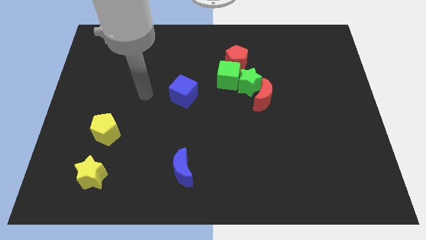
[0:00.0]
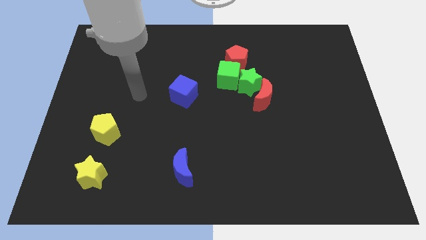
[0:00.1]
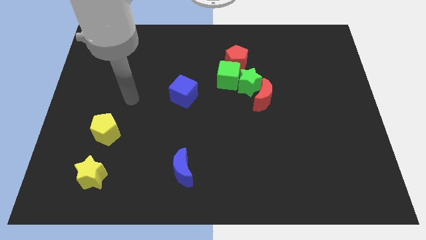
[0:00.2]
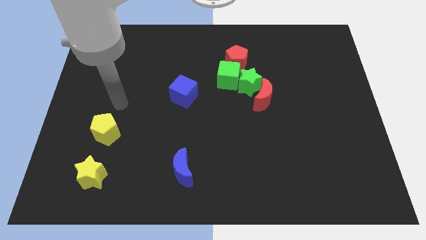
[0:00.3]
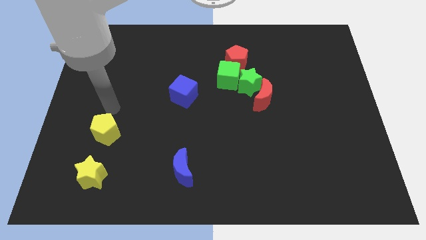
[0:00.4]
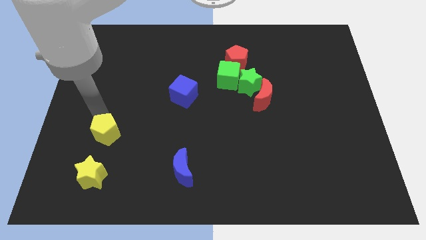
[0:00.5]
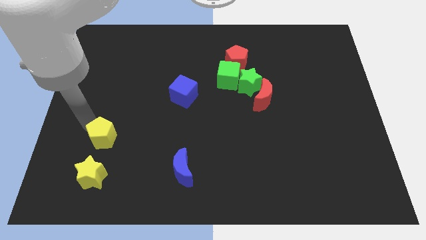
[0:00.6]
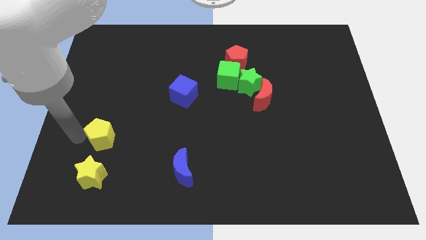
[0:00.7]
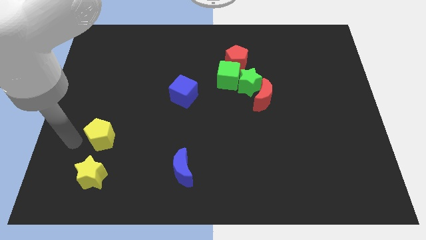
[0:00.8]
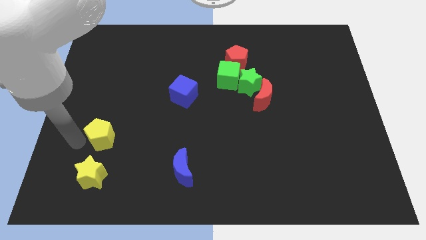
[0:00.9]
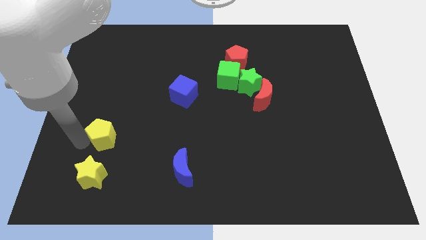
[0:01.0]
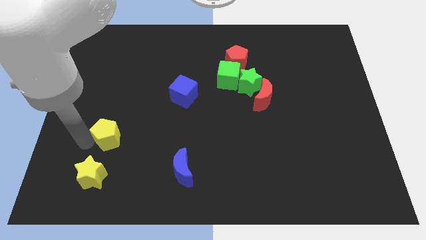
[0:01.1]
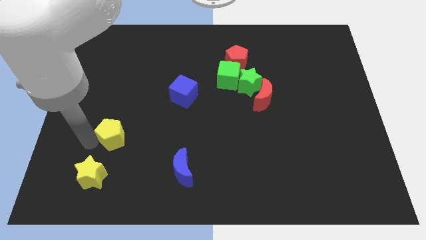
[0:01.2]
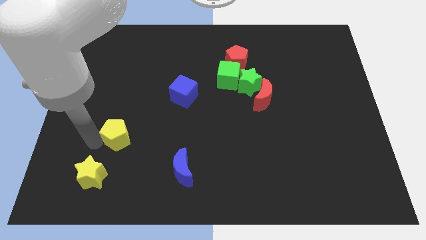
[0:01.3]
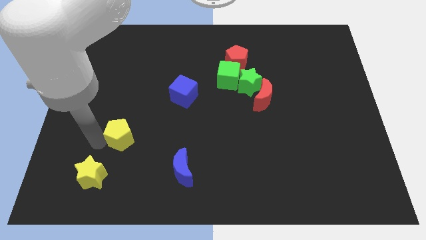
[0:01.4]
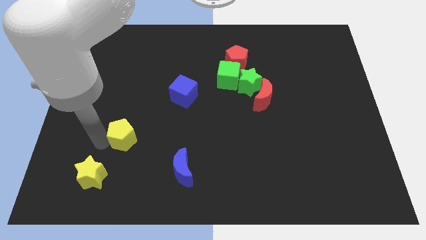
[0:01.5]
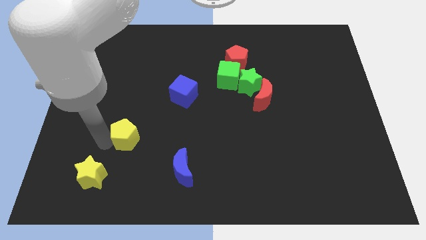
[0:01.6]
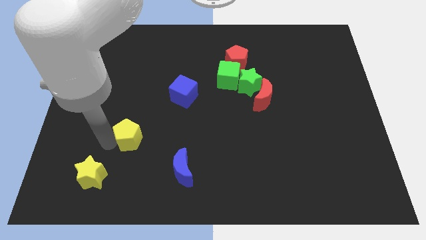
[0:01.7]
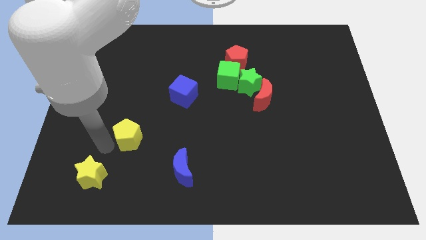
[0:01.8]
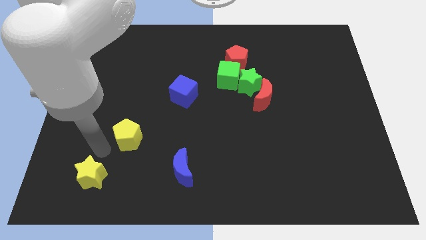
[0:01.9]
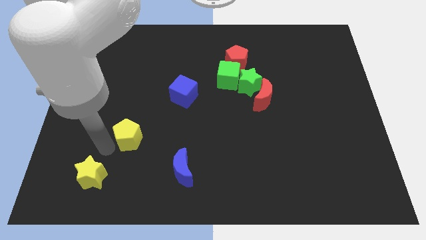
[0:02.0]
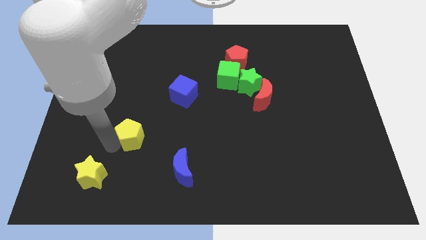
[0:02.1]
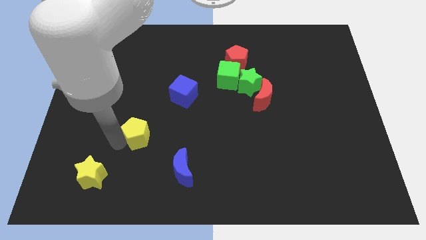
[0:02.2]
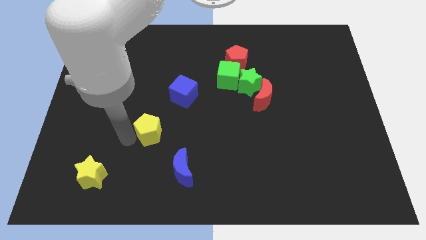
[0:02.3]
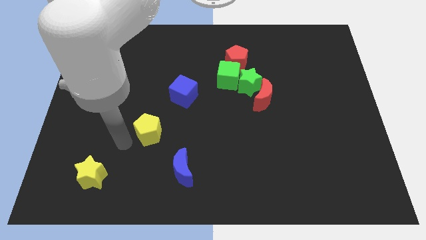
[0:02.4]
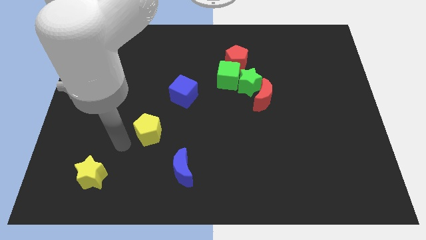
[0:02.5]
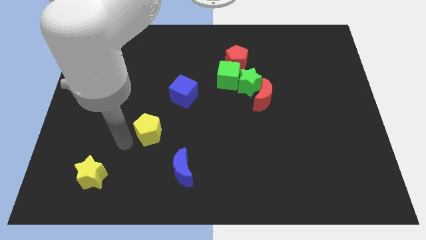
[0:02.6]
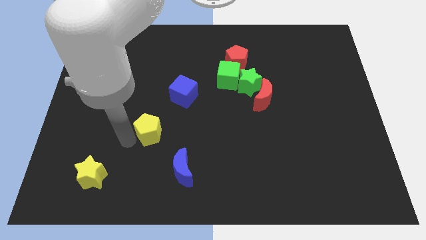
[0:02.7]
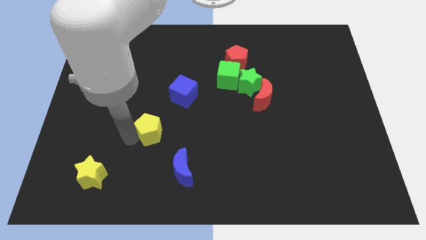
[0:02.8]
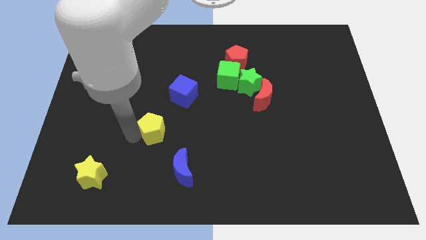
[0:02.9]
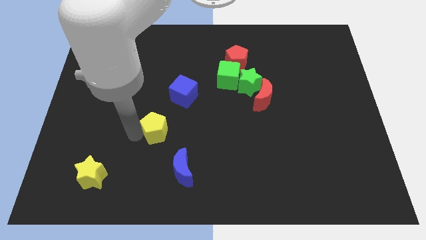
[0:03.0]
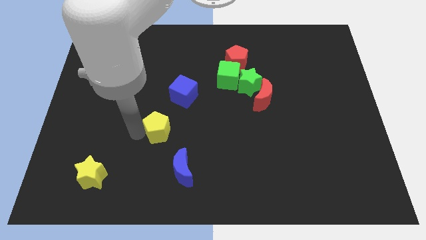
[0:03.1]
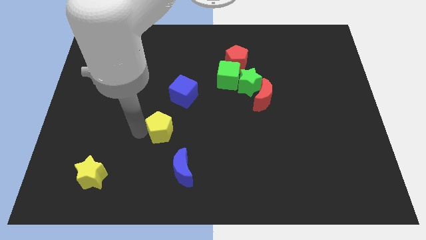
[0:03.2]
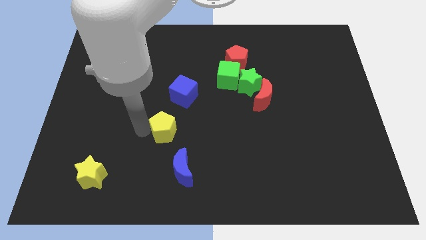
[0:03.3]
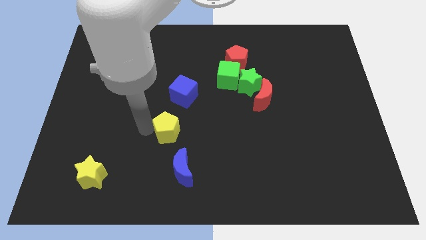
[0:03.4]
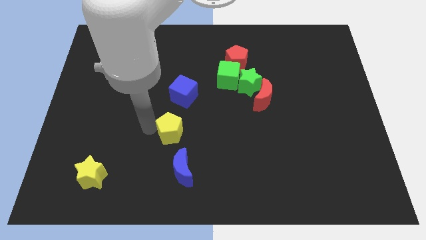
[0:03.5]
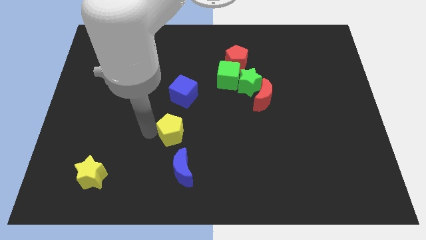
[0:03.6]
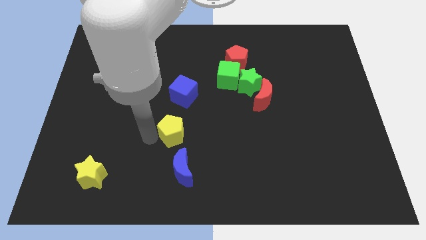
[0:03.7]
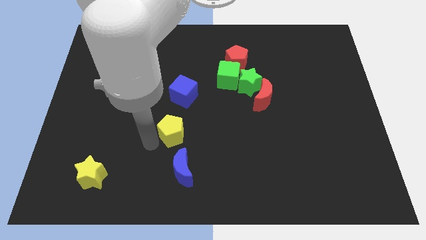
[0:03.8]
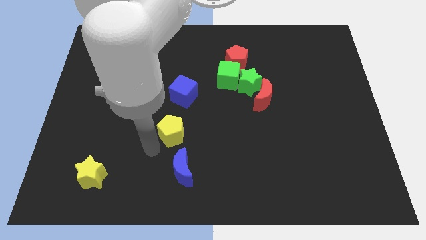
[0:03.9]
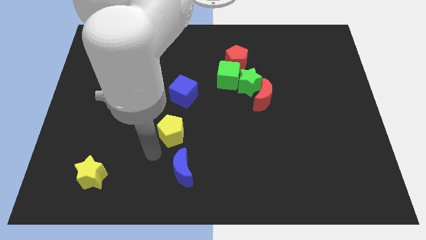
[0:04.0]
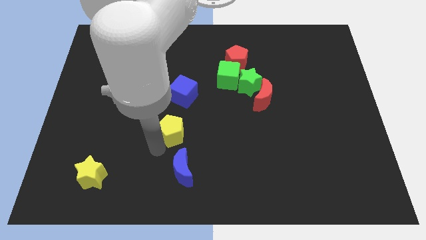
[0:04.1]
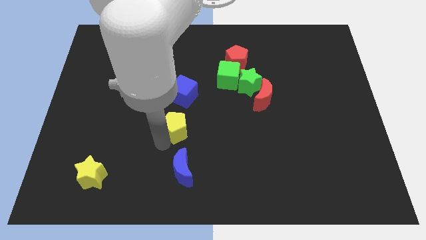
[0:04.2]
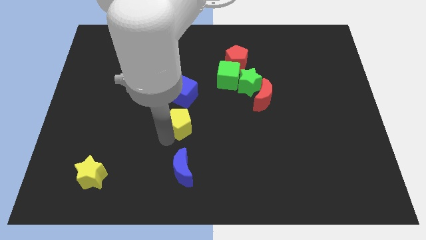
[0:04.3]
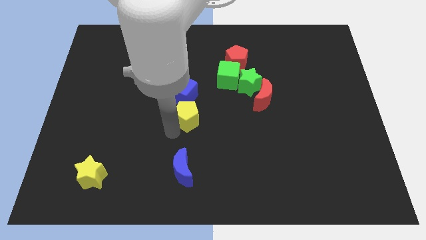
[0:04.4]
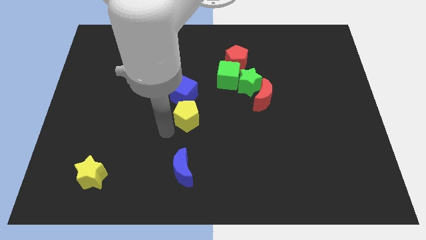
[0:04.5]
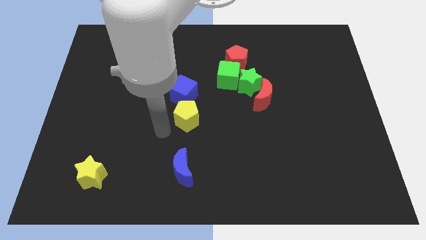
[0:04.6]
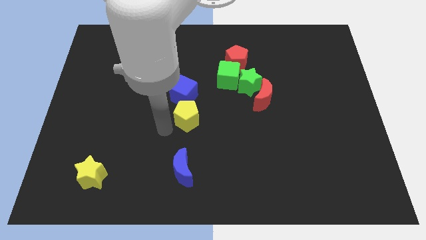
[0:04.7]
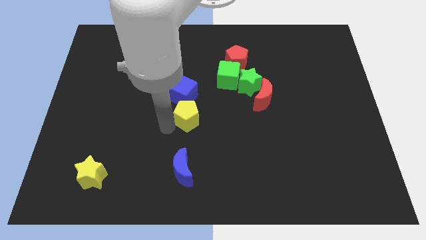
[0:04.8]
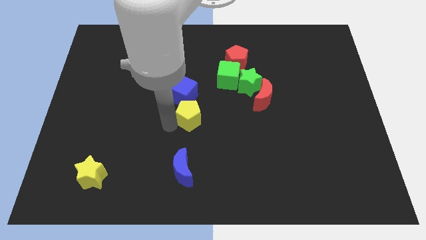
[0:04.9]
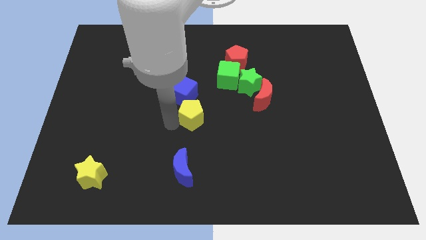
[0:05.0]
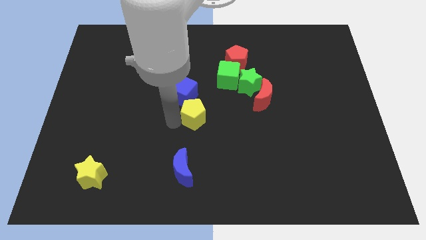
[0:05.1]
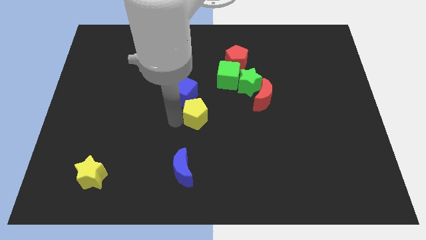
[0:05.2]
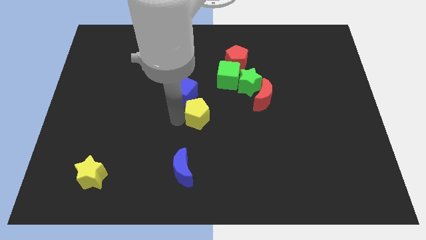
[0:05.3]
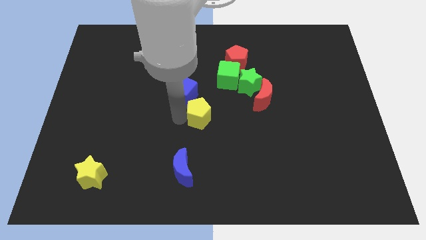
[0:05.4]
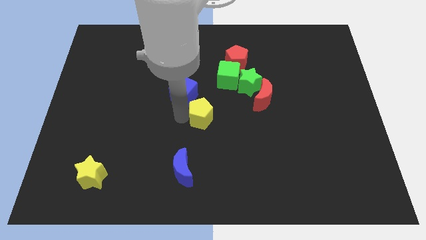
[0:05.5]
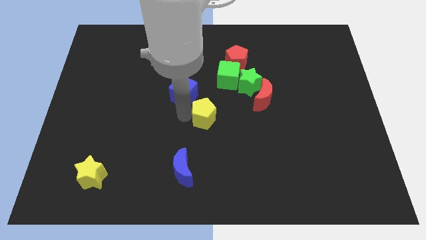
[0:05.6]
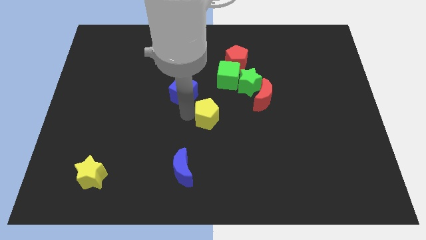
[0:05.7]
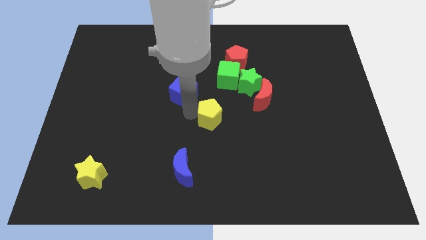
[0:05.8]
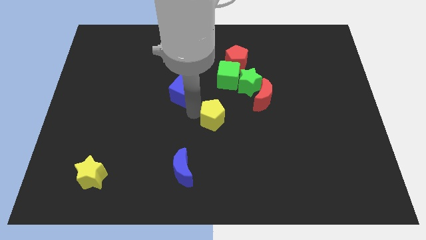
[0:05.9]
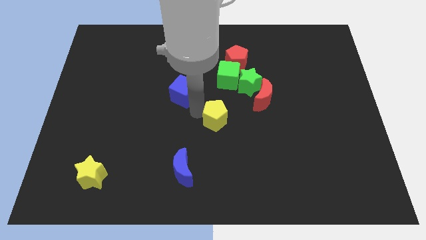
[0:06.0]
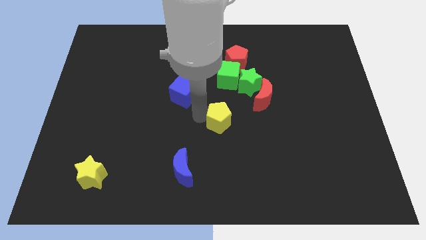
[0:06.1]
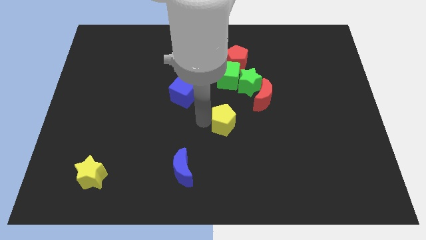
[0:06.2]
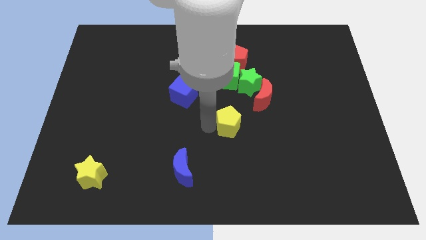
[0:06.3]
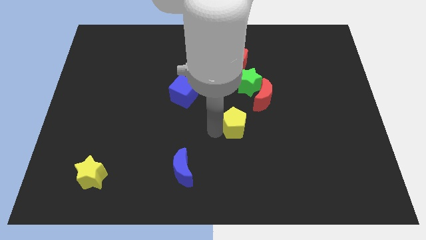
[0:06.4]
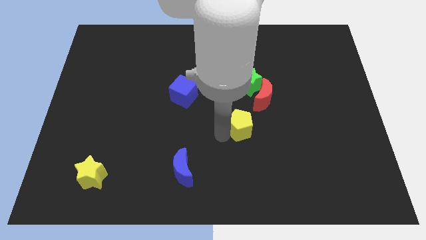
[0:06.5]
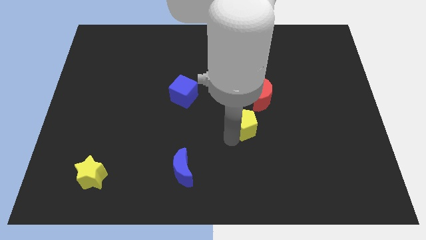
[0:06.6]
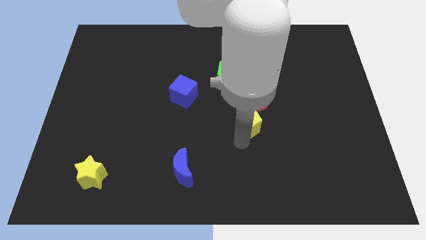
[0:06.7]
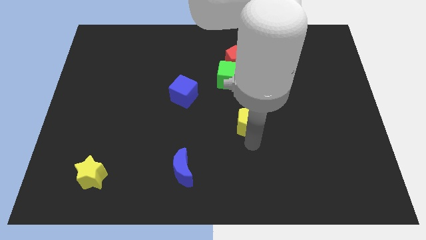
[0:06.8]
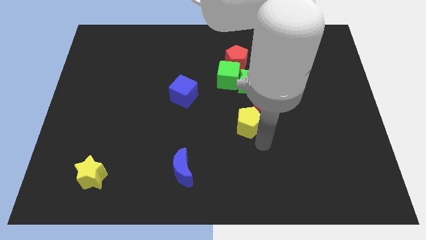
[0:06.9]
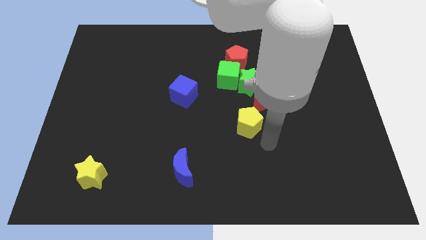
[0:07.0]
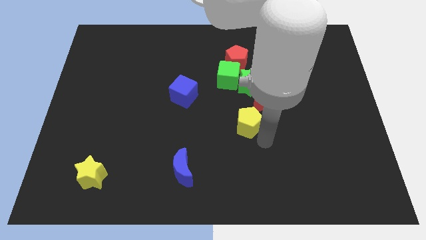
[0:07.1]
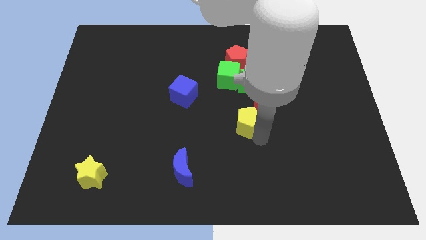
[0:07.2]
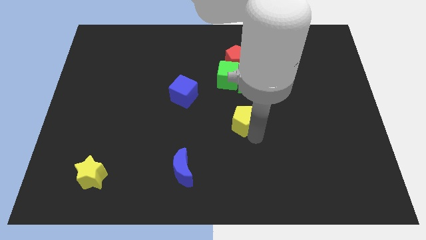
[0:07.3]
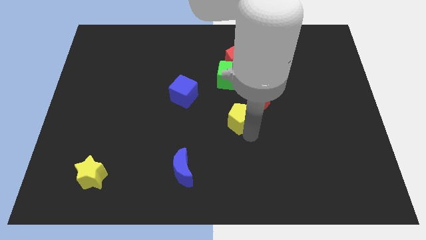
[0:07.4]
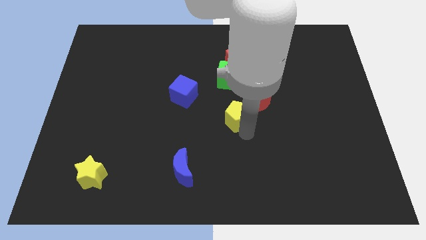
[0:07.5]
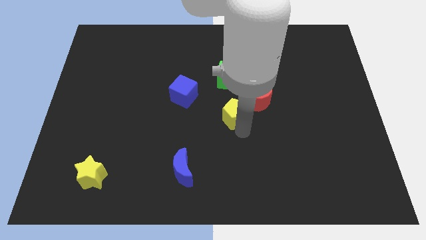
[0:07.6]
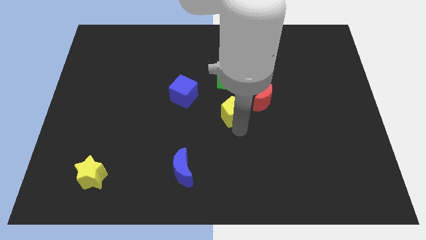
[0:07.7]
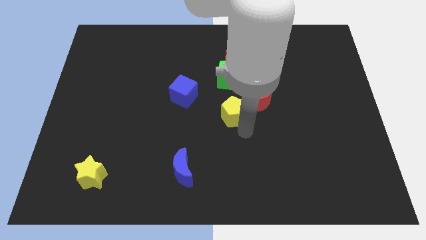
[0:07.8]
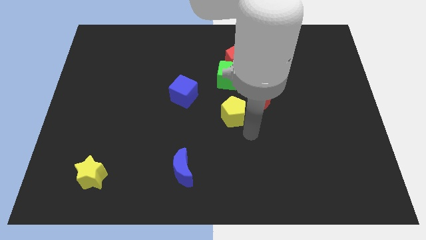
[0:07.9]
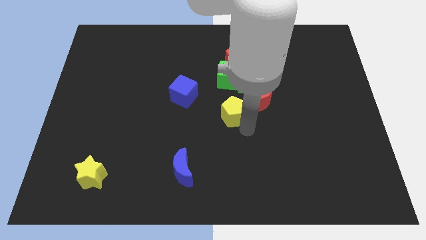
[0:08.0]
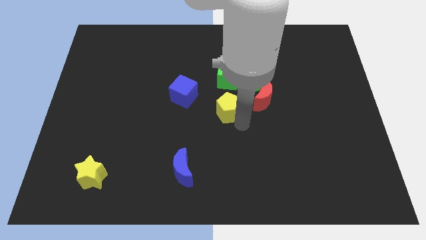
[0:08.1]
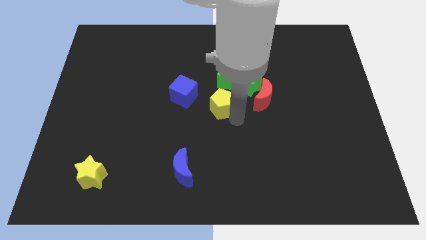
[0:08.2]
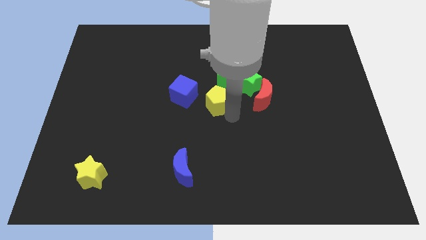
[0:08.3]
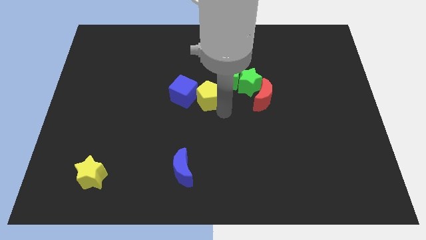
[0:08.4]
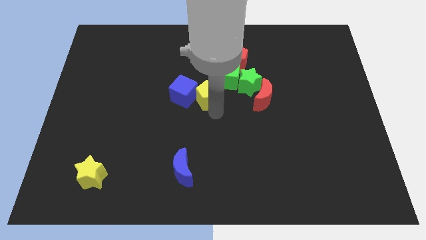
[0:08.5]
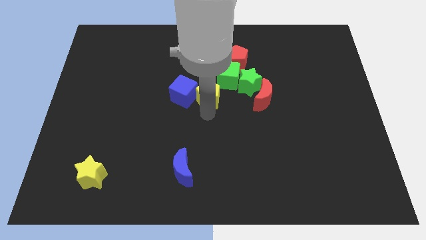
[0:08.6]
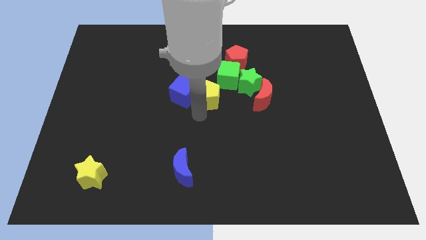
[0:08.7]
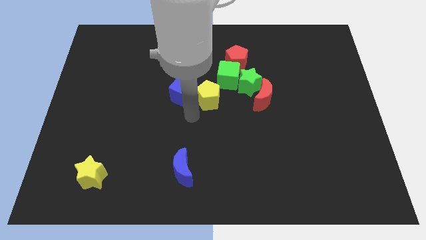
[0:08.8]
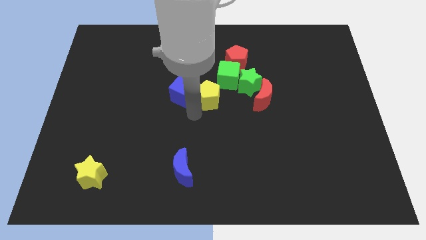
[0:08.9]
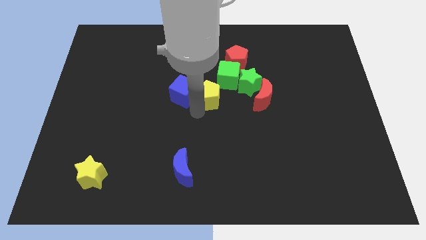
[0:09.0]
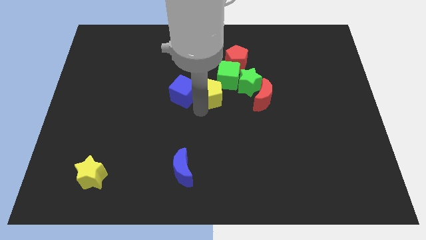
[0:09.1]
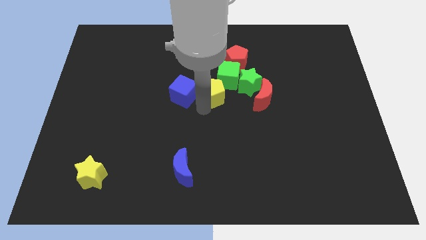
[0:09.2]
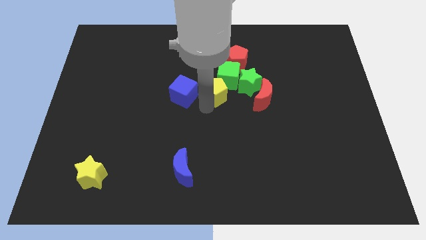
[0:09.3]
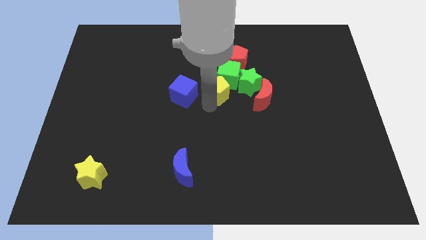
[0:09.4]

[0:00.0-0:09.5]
push the yellow pentagon towards the green cube
